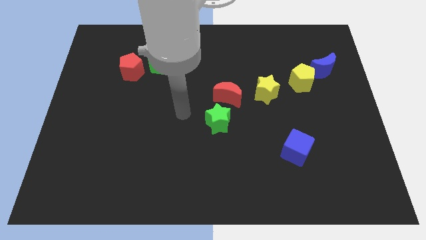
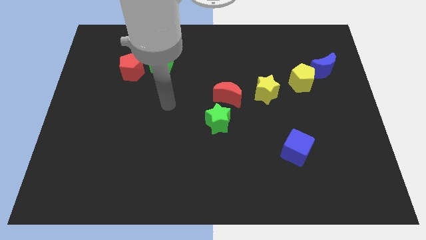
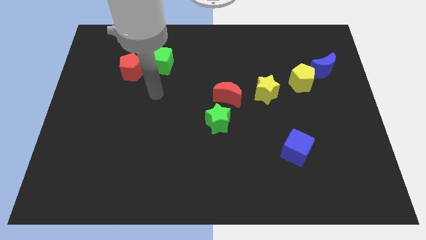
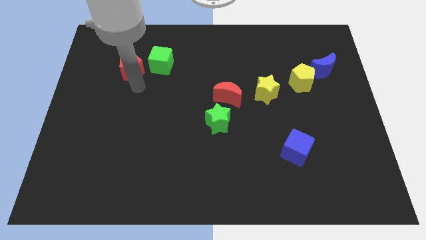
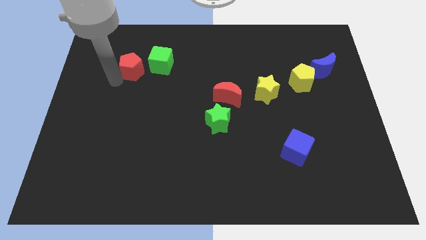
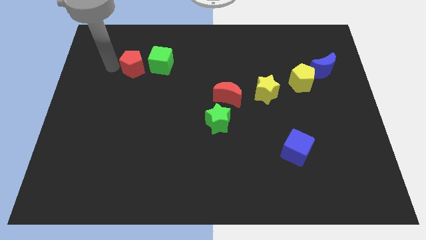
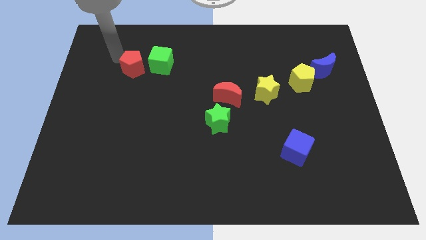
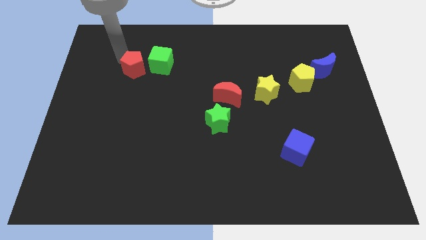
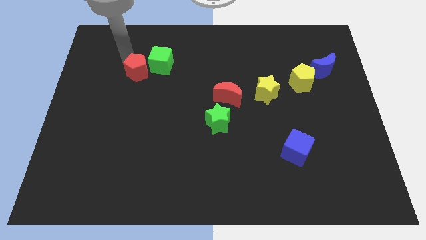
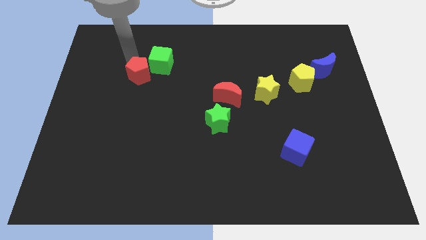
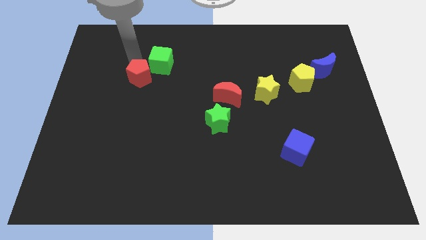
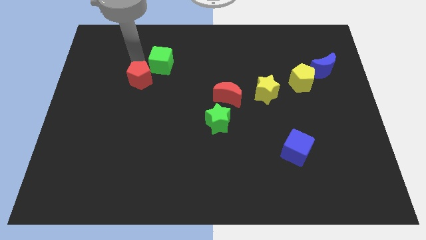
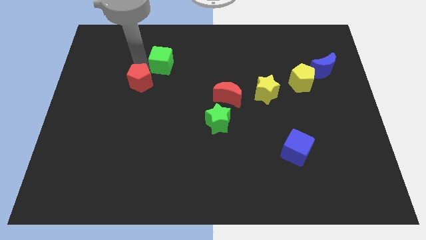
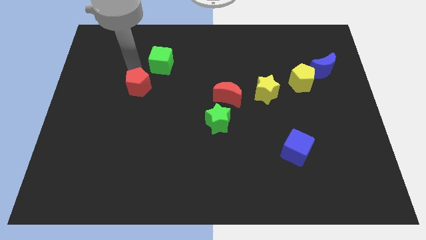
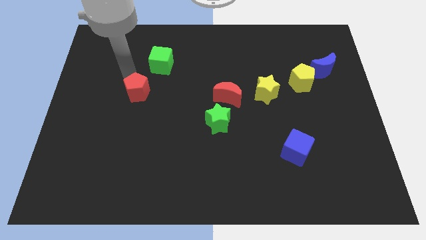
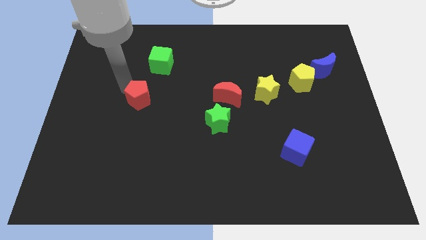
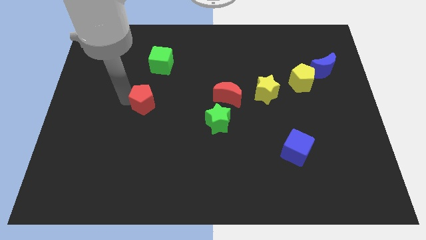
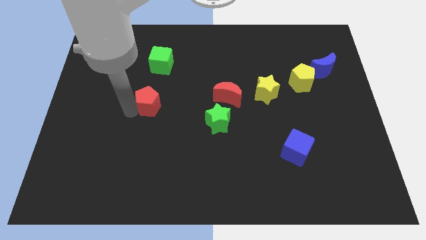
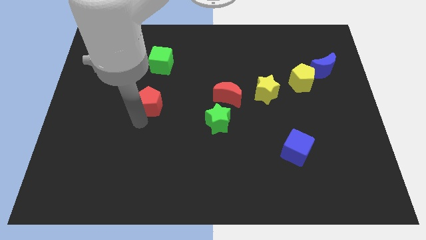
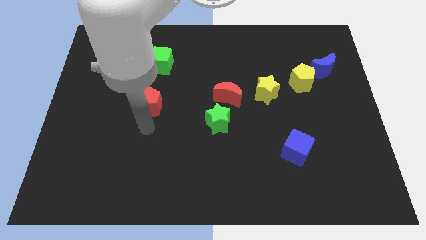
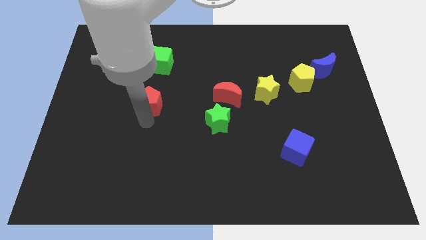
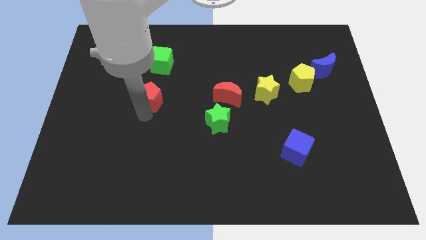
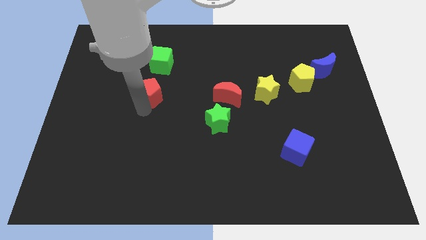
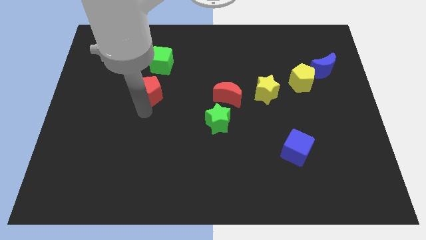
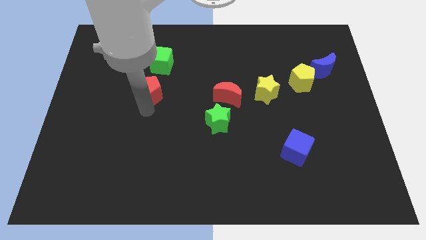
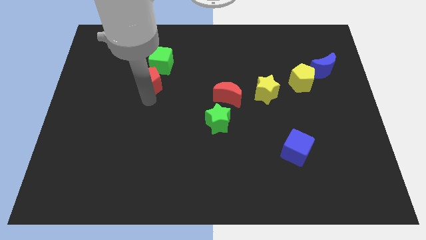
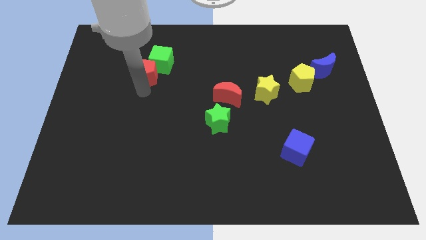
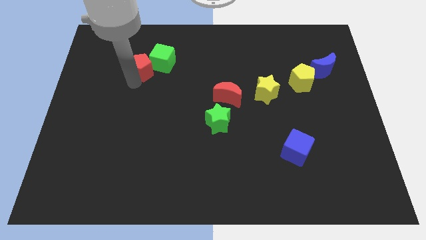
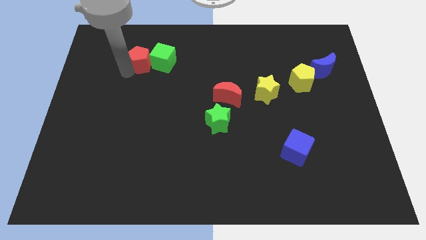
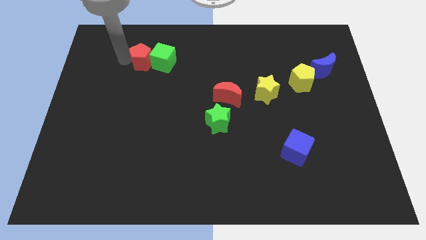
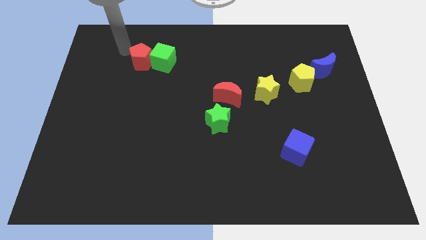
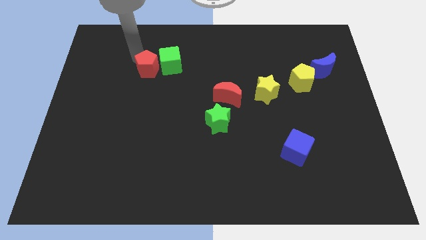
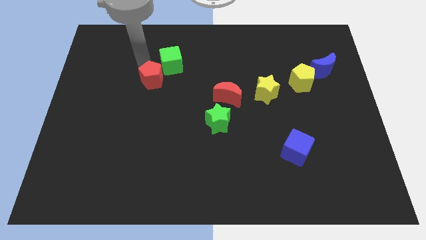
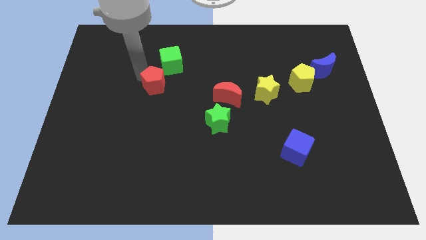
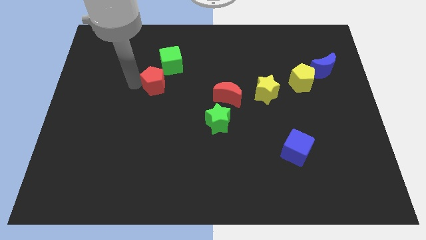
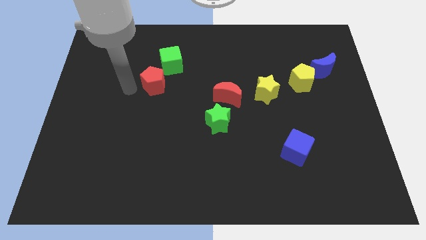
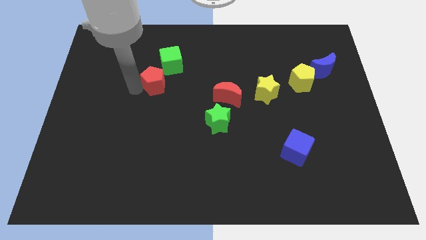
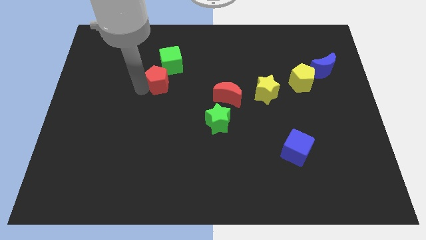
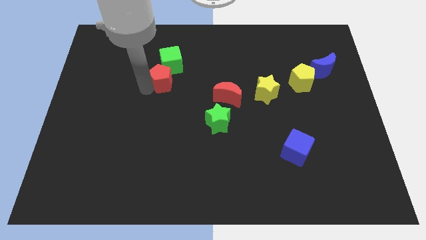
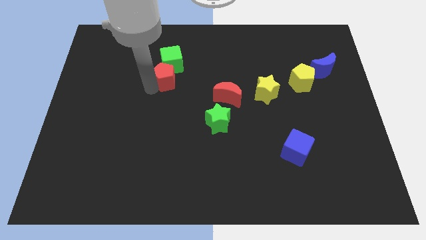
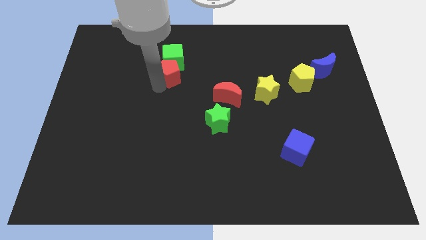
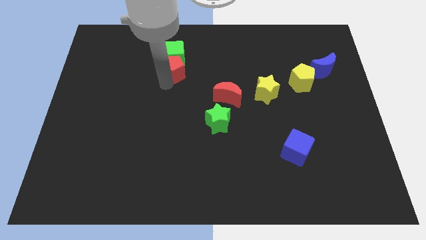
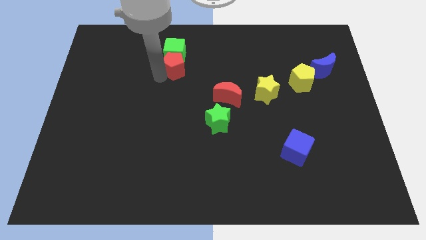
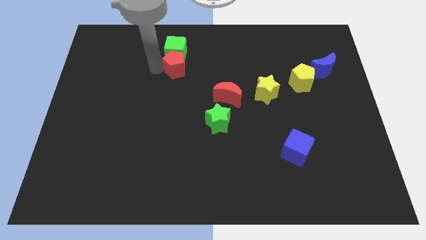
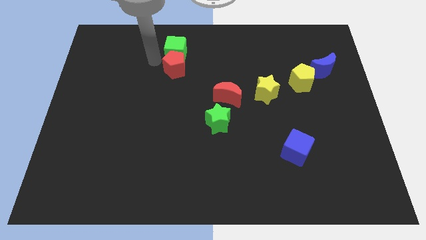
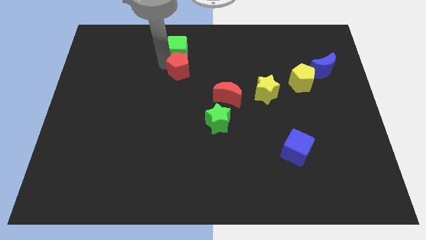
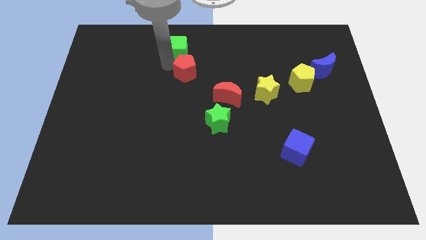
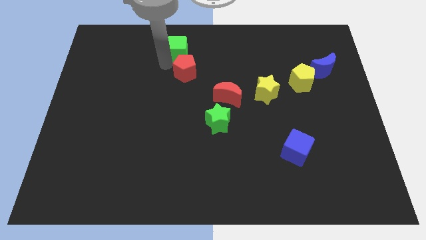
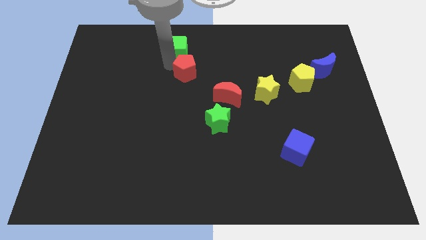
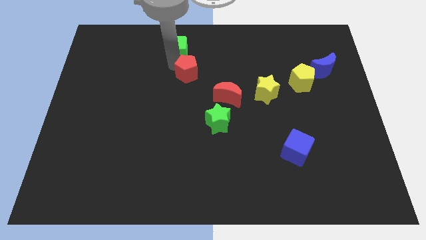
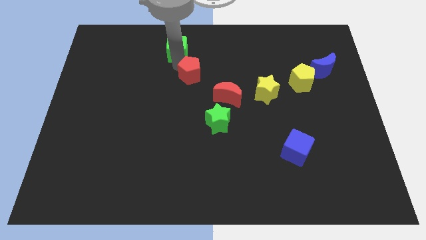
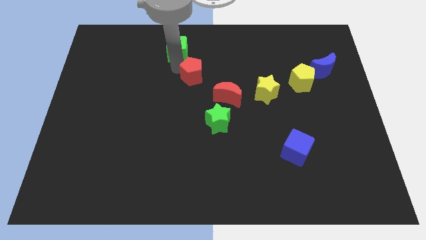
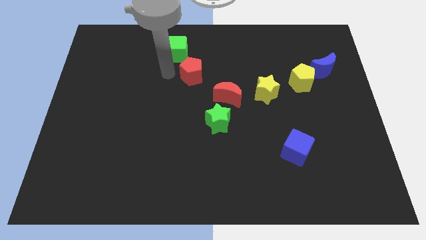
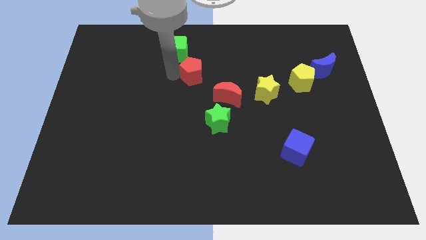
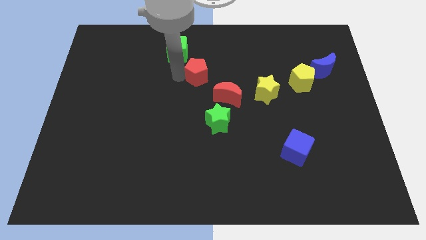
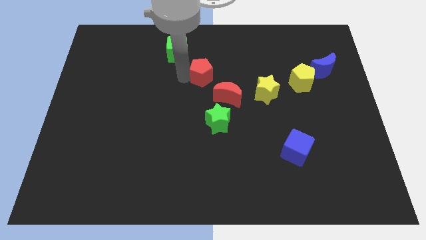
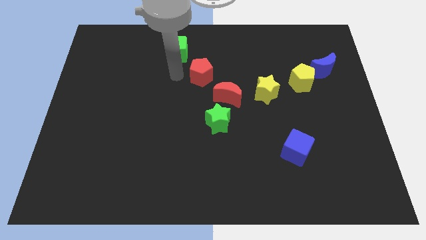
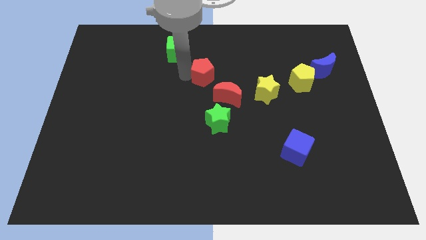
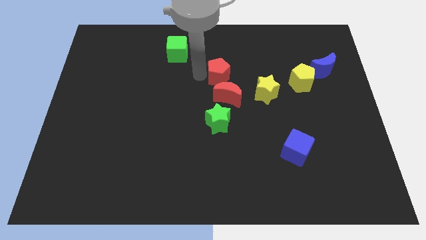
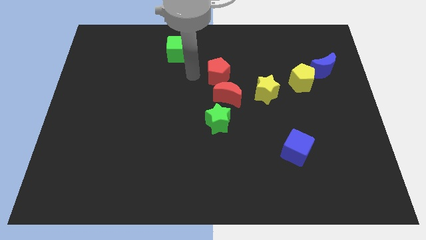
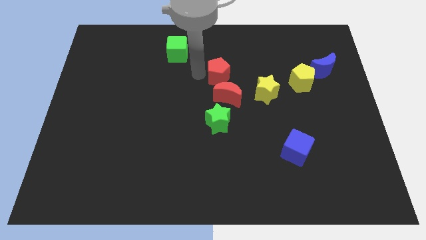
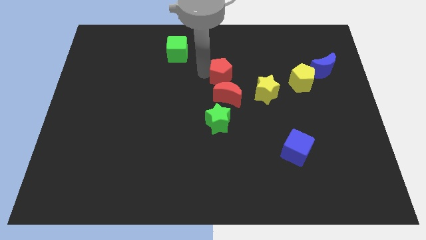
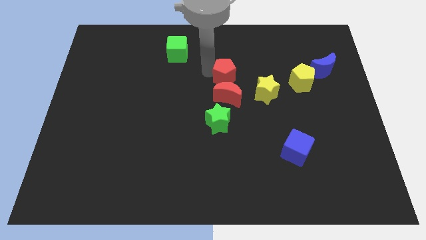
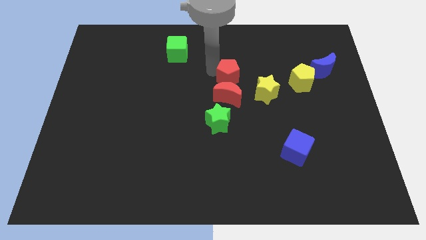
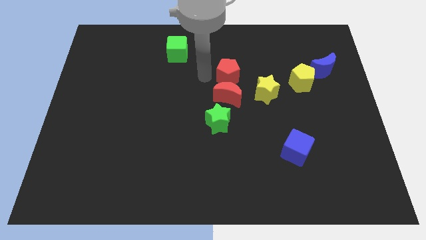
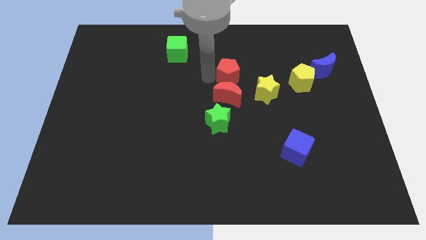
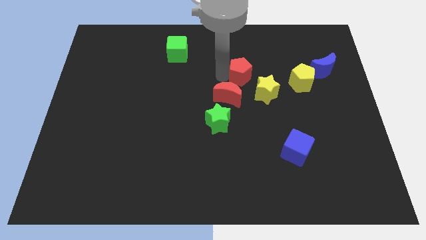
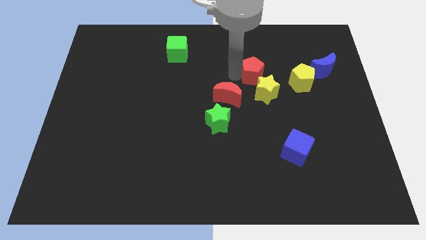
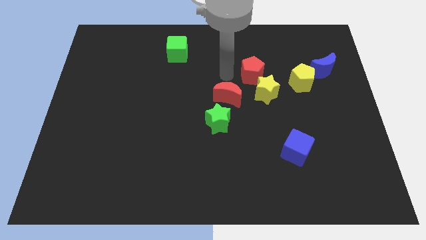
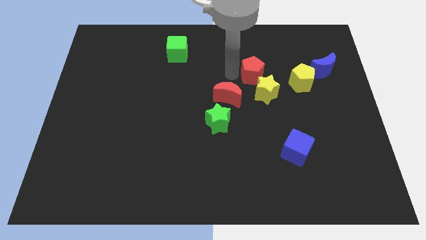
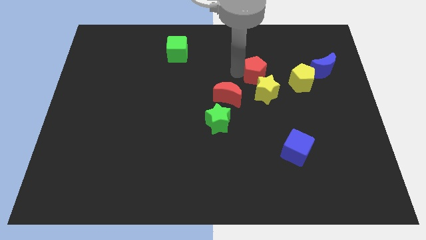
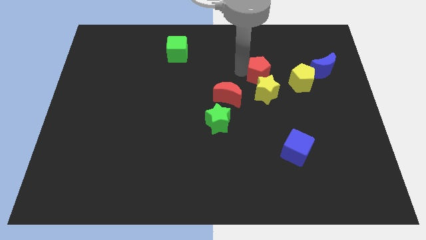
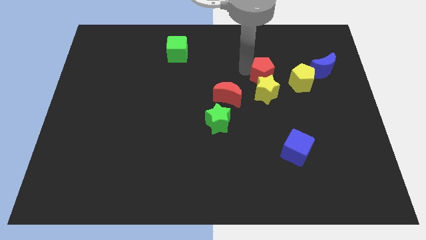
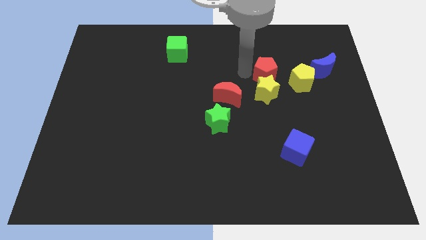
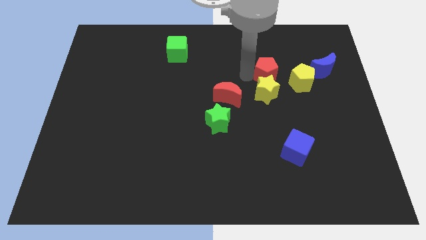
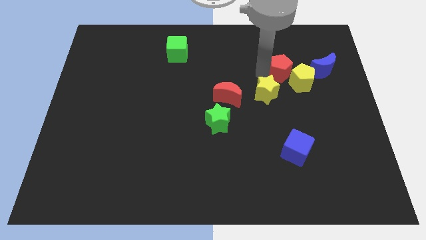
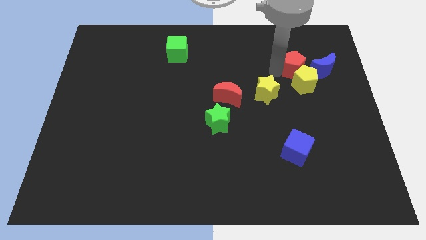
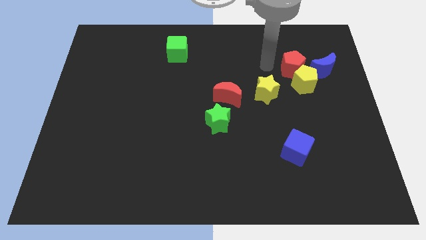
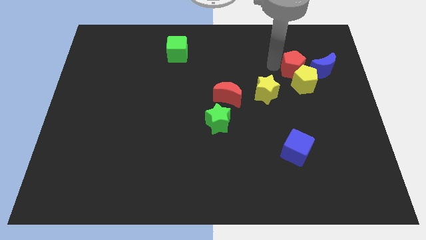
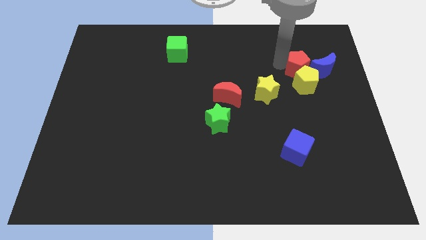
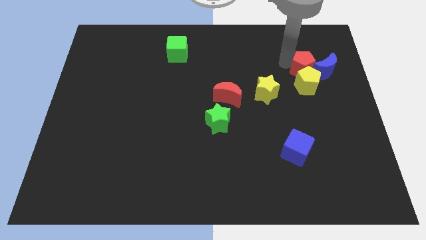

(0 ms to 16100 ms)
push the red pentagon to the blue moon
